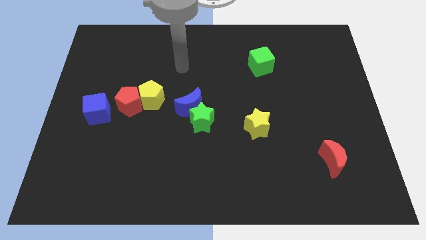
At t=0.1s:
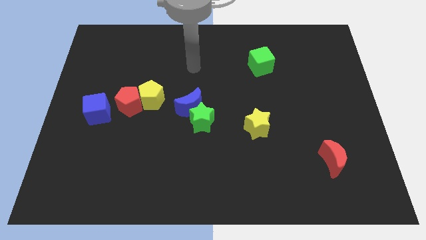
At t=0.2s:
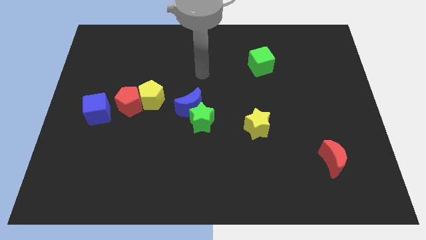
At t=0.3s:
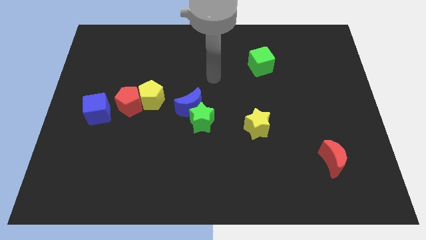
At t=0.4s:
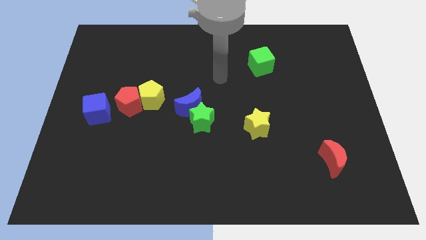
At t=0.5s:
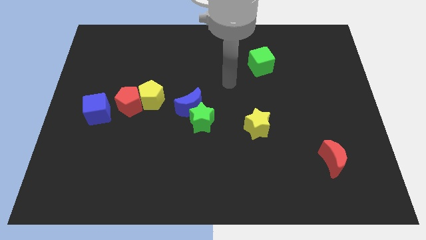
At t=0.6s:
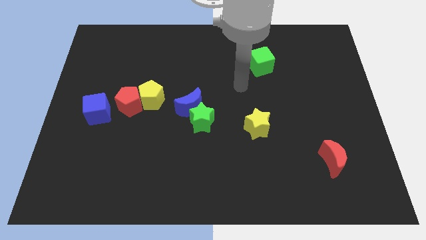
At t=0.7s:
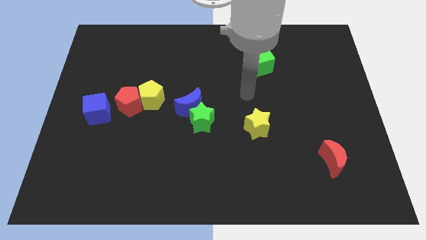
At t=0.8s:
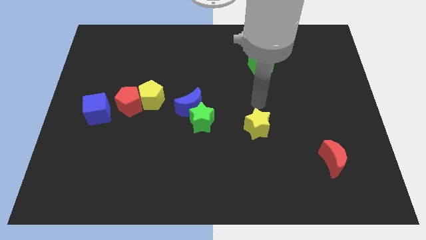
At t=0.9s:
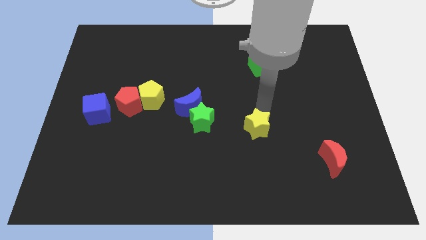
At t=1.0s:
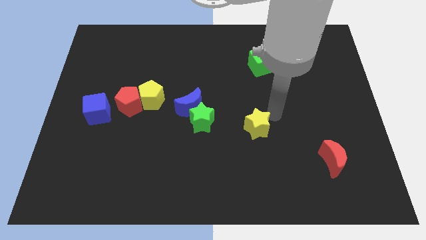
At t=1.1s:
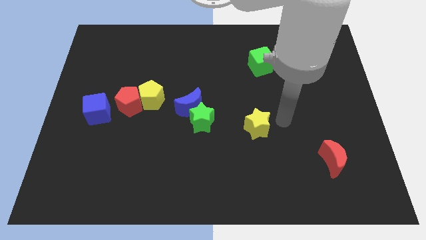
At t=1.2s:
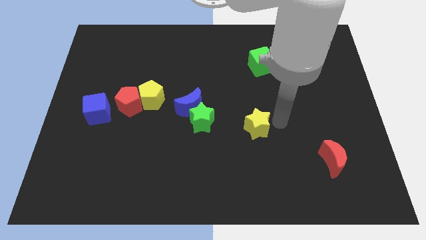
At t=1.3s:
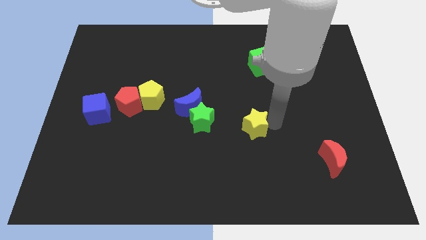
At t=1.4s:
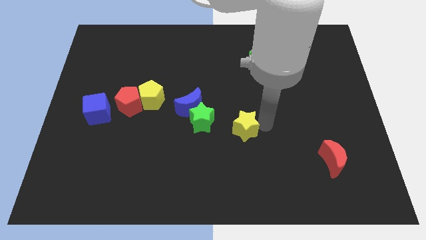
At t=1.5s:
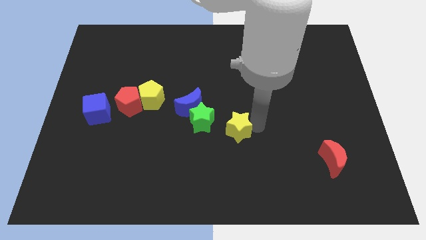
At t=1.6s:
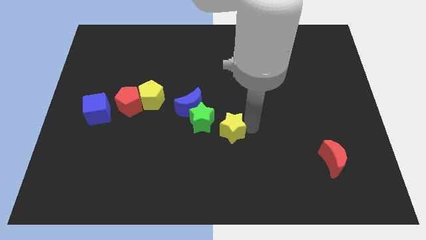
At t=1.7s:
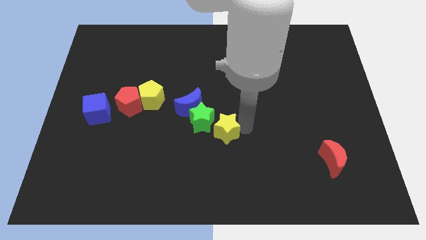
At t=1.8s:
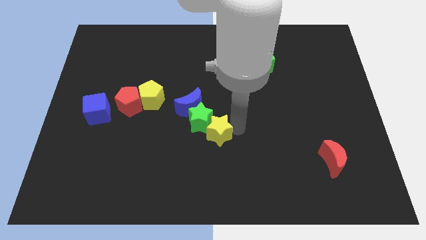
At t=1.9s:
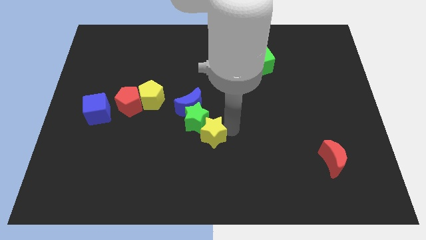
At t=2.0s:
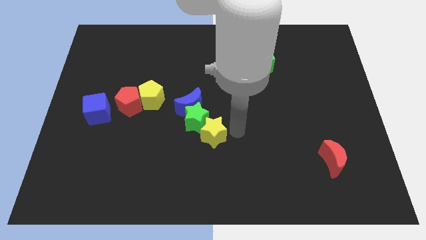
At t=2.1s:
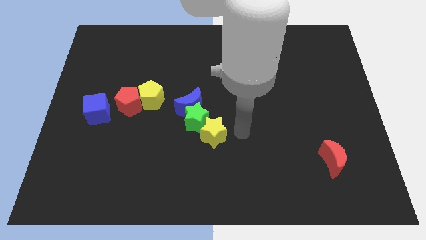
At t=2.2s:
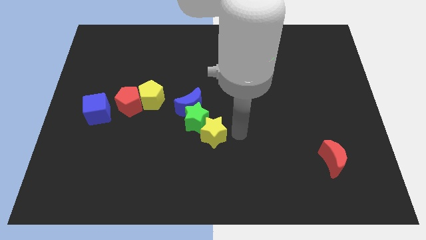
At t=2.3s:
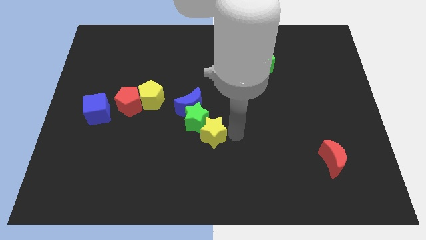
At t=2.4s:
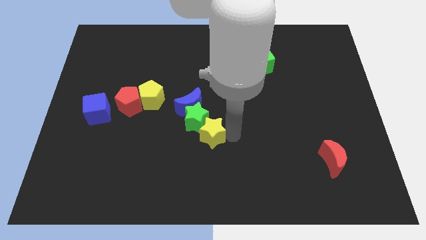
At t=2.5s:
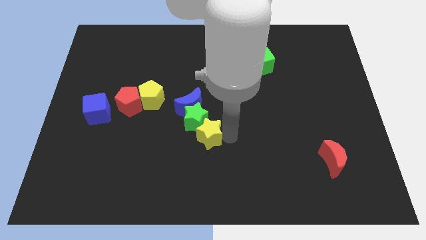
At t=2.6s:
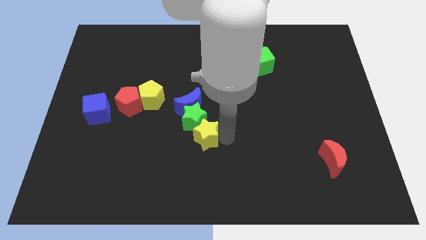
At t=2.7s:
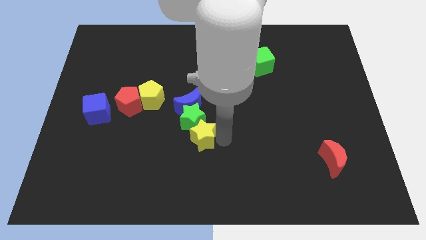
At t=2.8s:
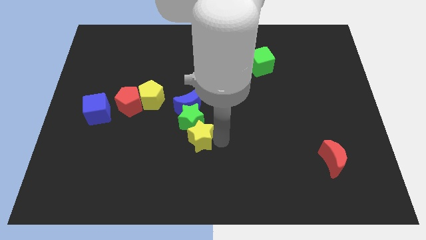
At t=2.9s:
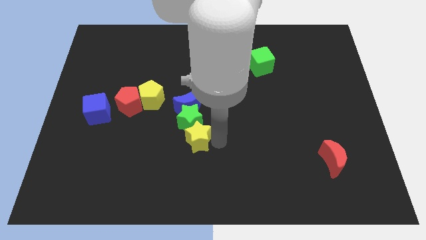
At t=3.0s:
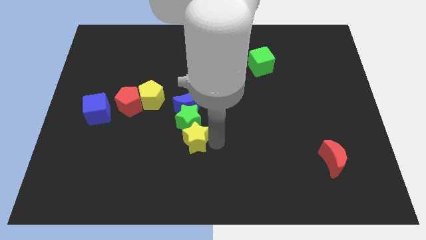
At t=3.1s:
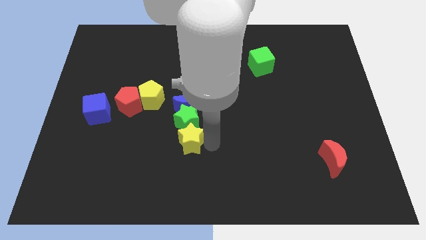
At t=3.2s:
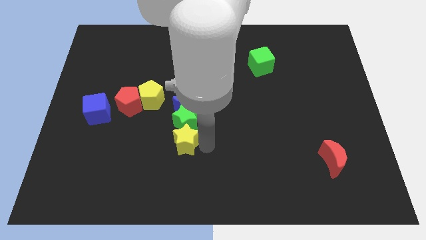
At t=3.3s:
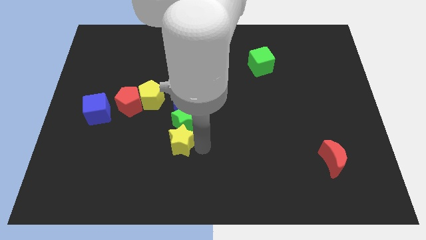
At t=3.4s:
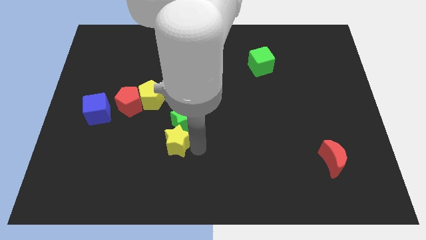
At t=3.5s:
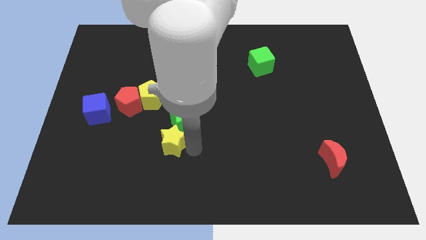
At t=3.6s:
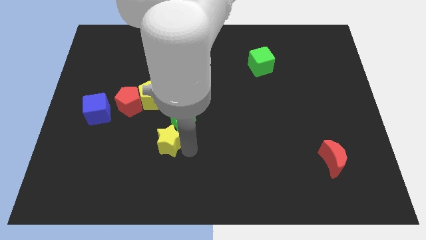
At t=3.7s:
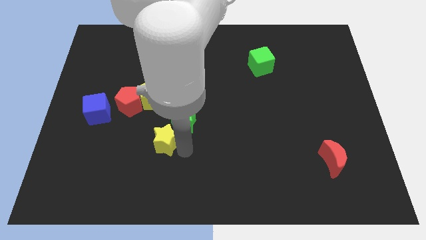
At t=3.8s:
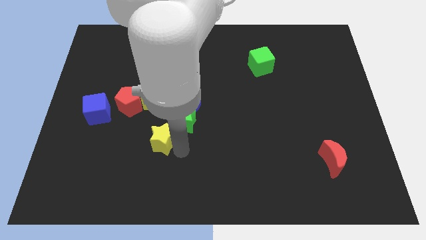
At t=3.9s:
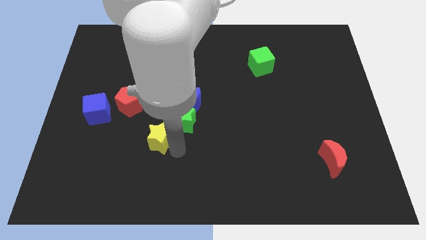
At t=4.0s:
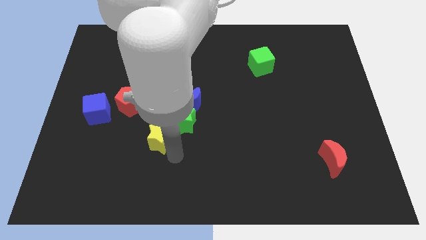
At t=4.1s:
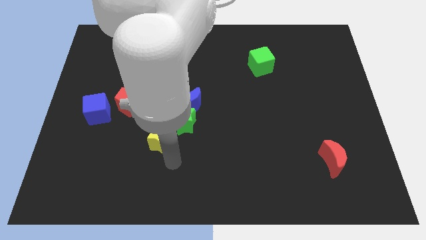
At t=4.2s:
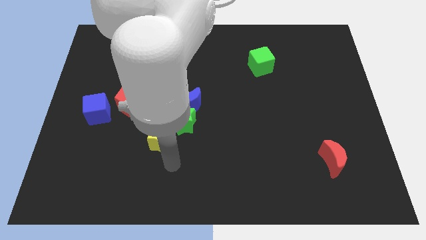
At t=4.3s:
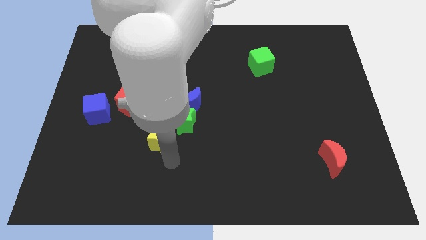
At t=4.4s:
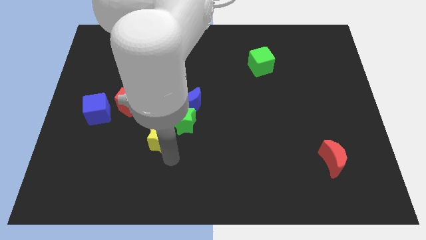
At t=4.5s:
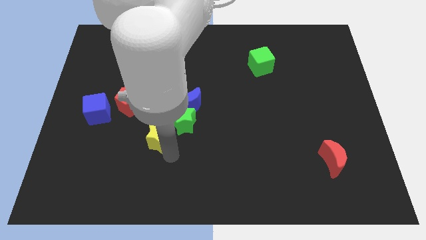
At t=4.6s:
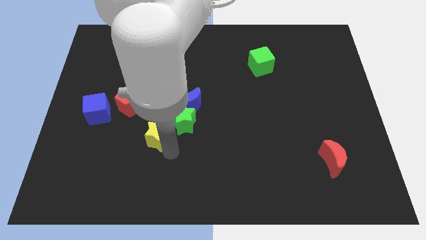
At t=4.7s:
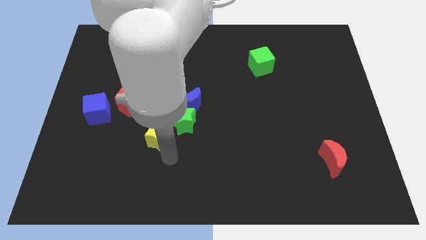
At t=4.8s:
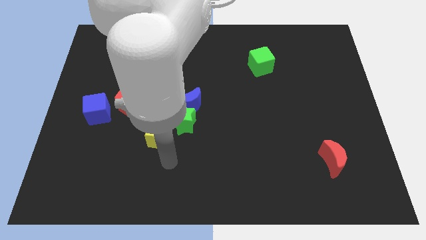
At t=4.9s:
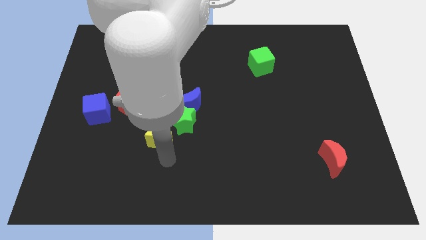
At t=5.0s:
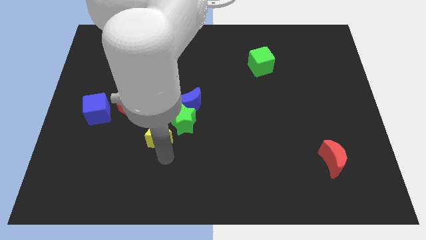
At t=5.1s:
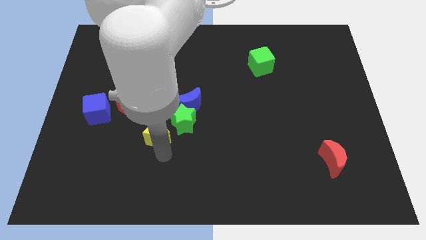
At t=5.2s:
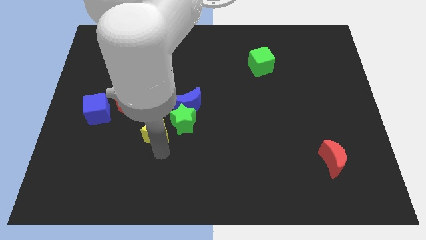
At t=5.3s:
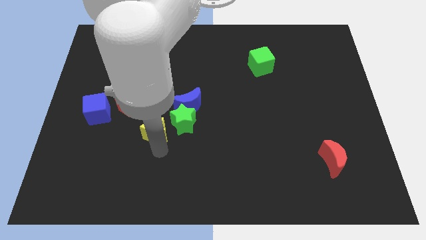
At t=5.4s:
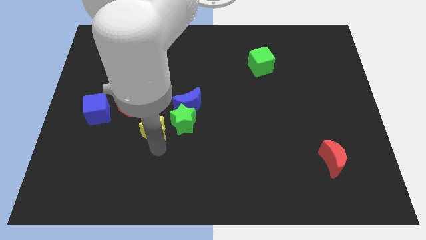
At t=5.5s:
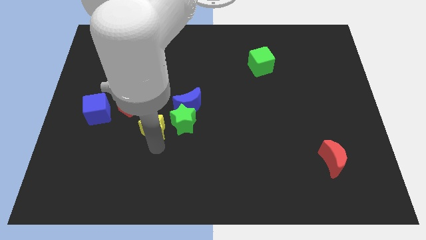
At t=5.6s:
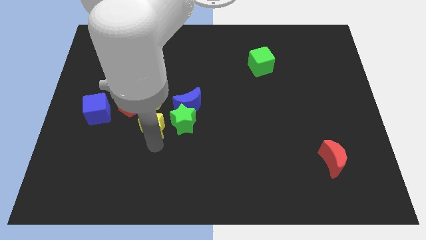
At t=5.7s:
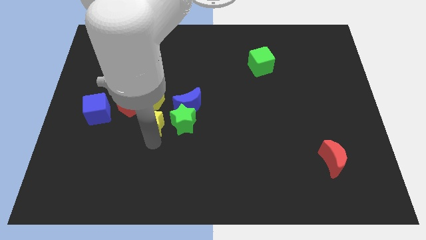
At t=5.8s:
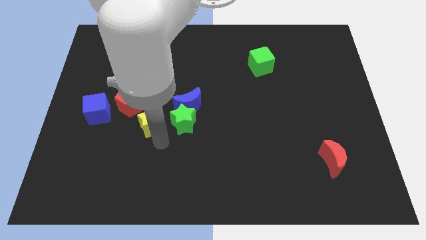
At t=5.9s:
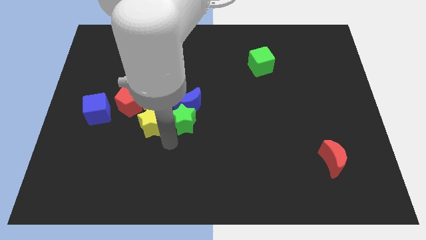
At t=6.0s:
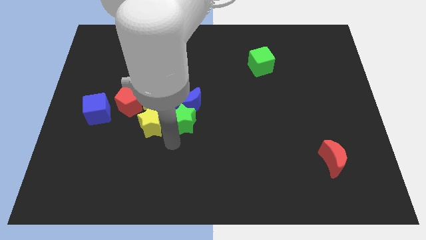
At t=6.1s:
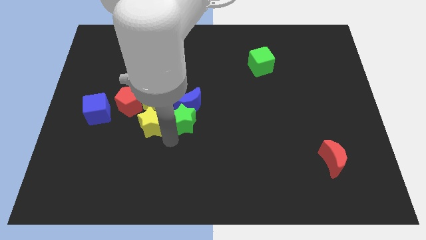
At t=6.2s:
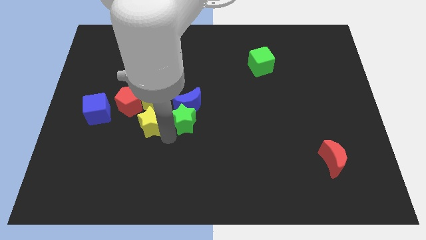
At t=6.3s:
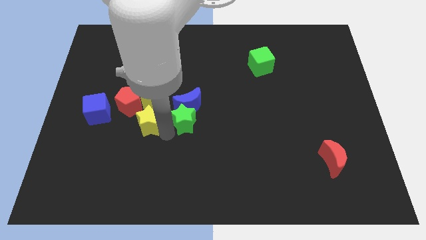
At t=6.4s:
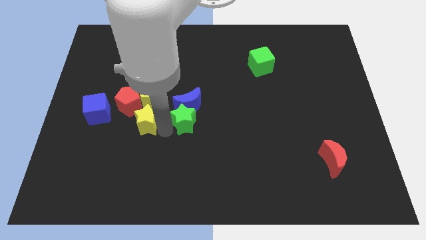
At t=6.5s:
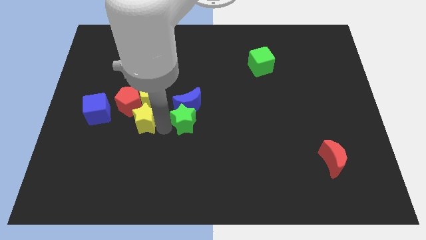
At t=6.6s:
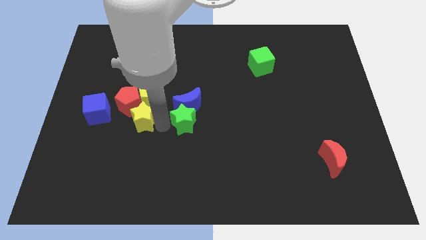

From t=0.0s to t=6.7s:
put the yellow star towards the red pentagon

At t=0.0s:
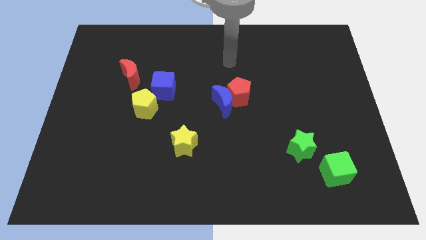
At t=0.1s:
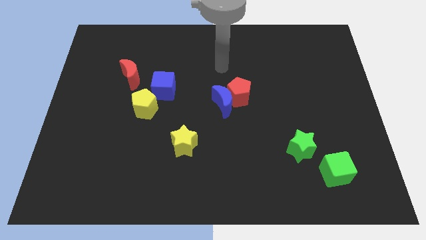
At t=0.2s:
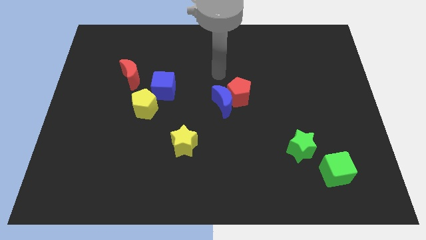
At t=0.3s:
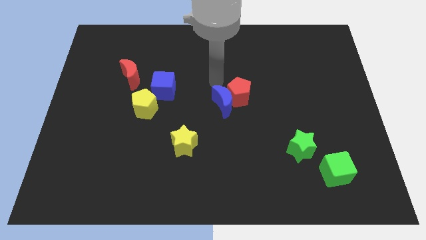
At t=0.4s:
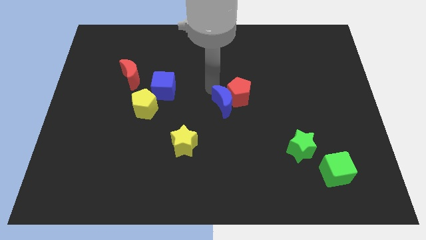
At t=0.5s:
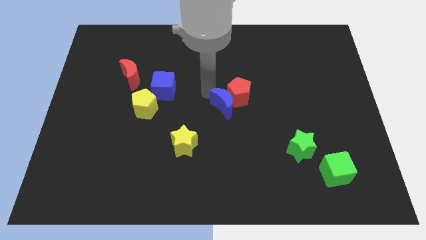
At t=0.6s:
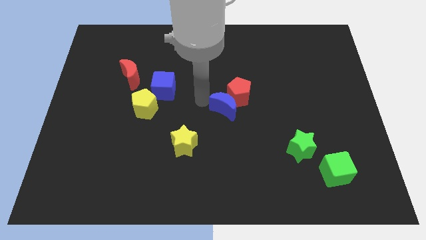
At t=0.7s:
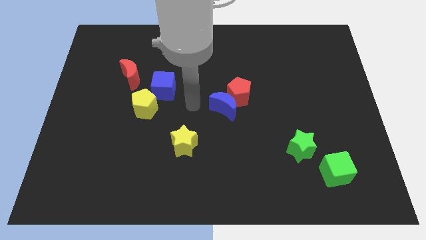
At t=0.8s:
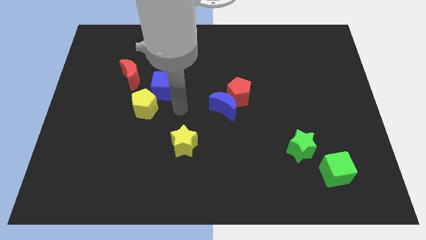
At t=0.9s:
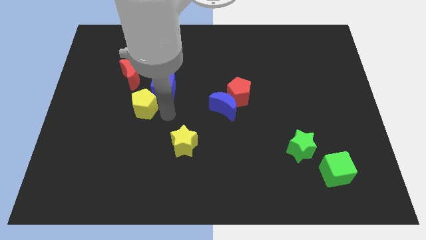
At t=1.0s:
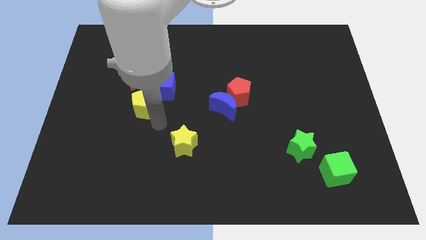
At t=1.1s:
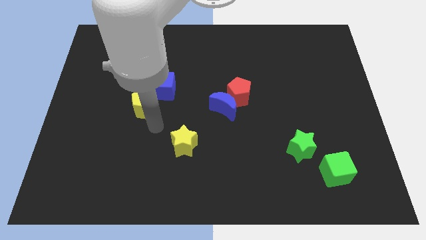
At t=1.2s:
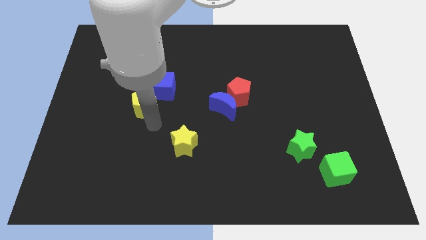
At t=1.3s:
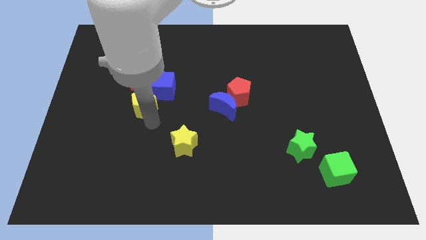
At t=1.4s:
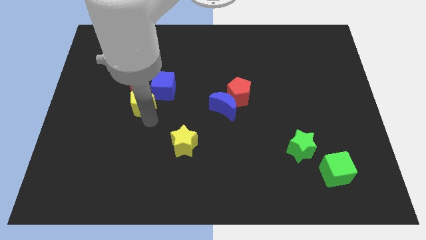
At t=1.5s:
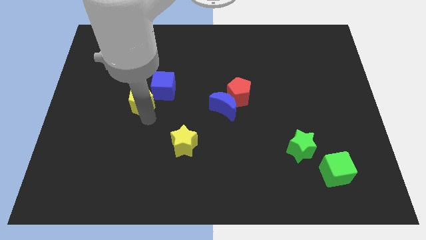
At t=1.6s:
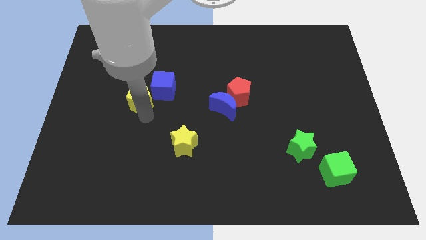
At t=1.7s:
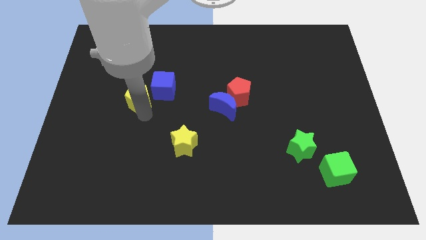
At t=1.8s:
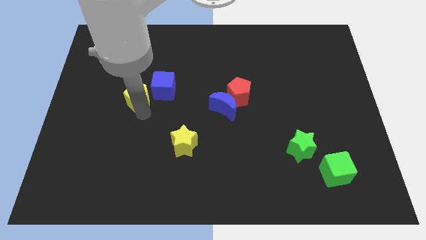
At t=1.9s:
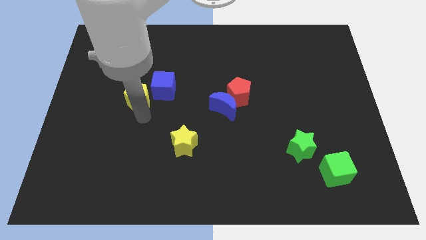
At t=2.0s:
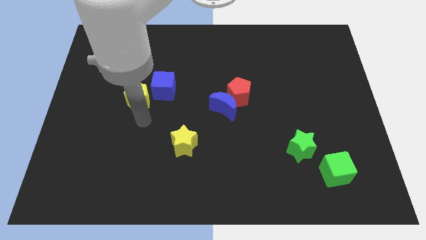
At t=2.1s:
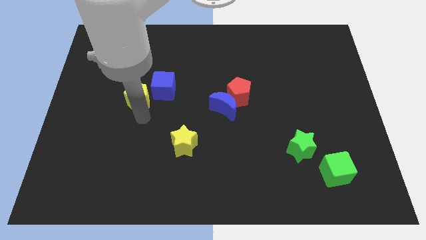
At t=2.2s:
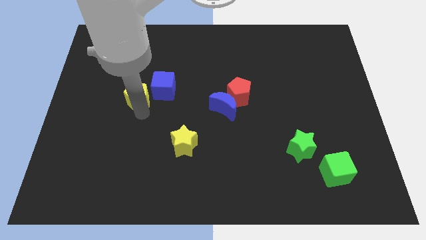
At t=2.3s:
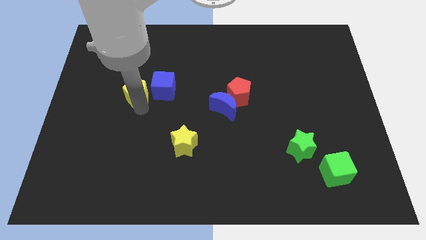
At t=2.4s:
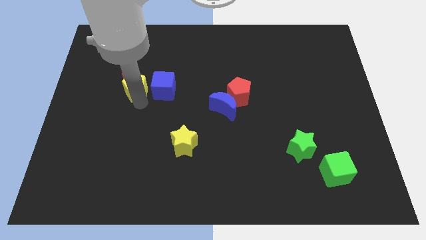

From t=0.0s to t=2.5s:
slide the yellow pentagon towards the red moon
